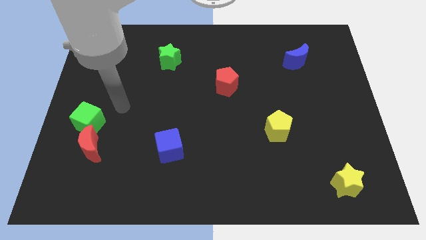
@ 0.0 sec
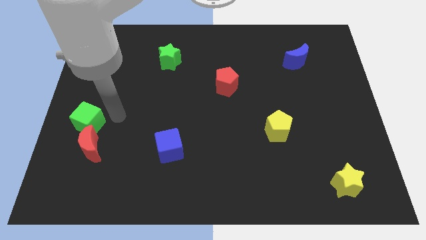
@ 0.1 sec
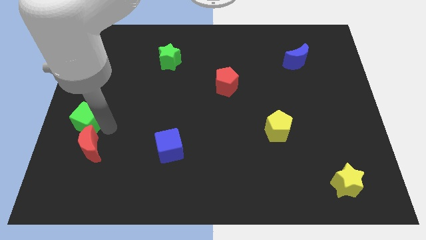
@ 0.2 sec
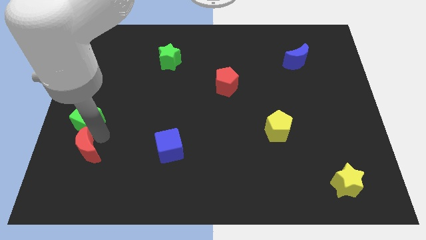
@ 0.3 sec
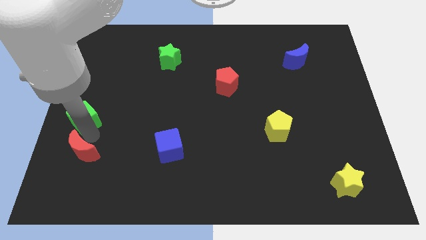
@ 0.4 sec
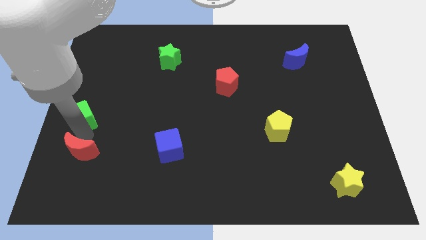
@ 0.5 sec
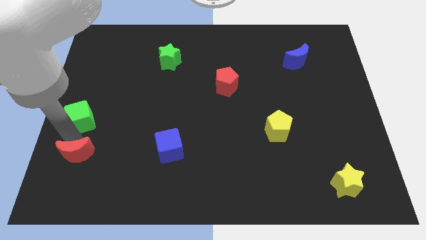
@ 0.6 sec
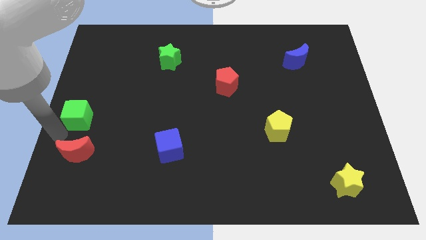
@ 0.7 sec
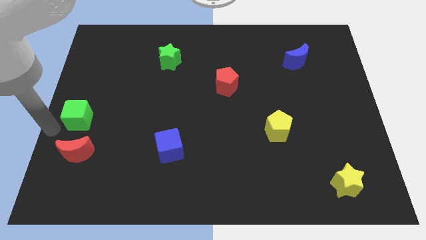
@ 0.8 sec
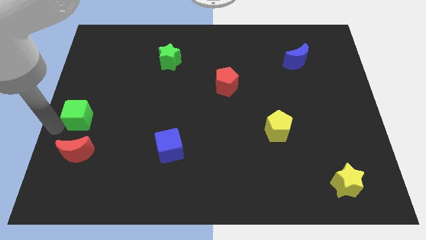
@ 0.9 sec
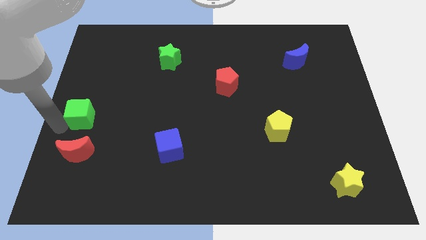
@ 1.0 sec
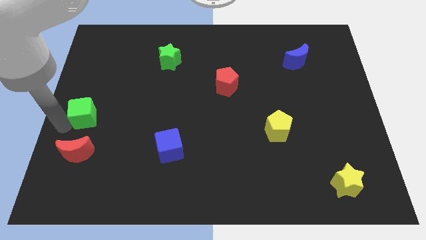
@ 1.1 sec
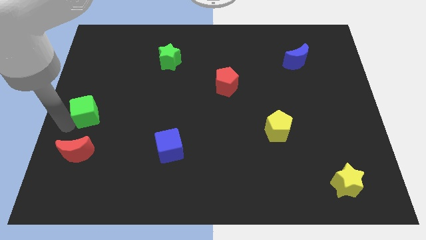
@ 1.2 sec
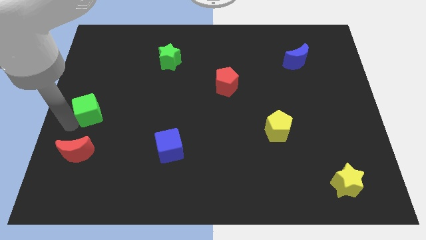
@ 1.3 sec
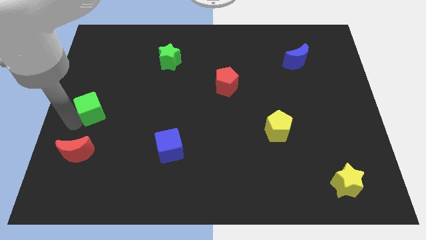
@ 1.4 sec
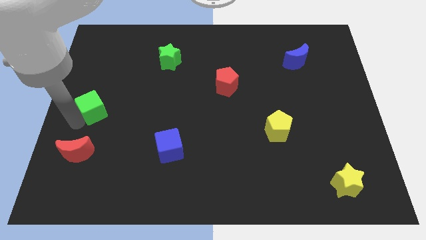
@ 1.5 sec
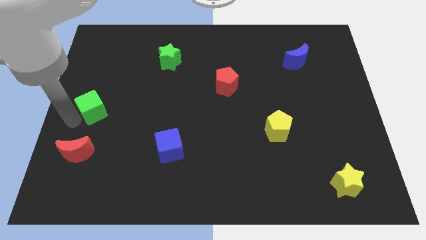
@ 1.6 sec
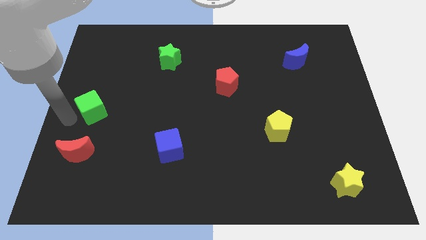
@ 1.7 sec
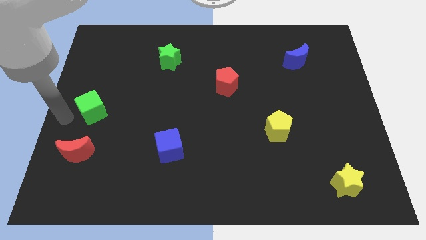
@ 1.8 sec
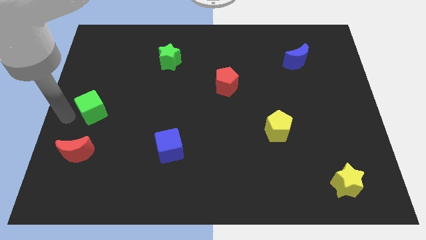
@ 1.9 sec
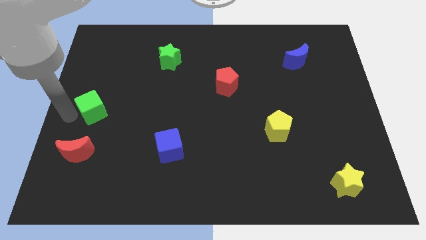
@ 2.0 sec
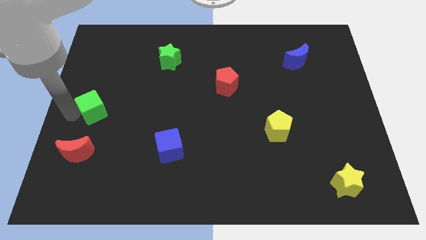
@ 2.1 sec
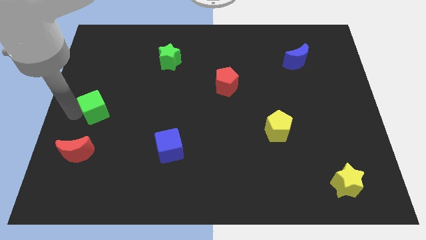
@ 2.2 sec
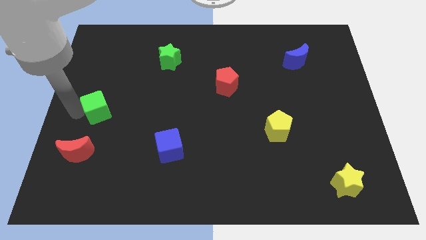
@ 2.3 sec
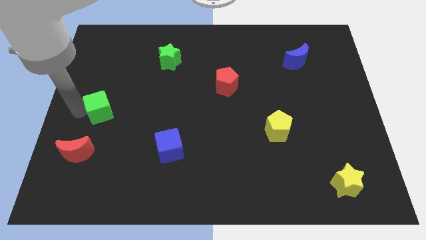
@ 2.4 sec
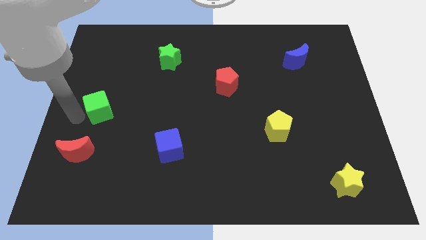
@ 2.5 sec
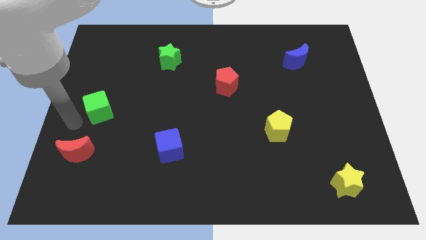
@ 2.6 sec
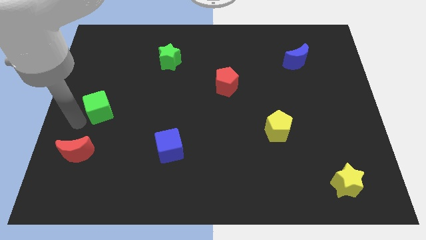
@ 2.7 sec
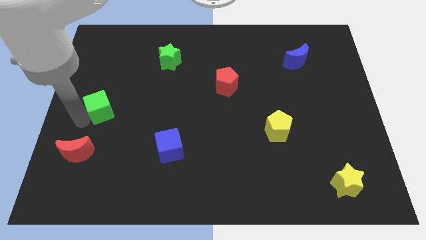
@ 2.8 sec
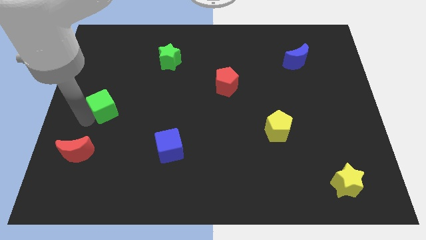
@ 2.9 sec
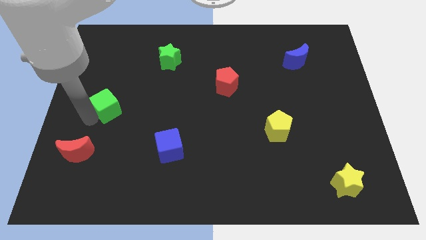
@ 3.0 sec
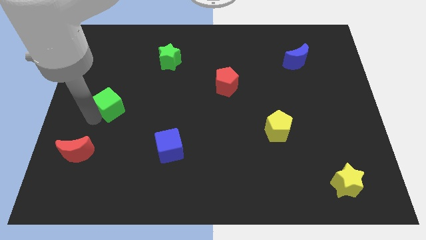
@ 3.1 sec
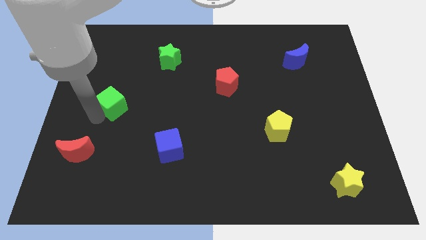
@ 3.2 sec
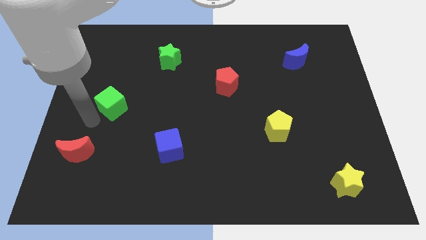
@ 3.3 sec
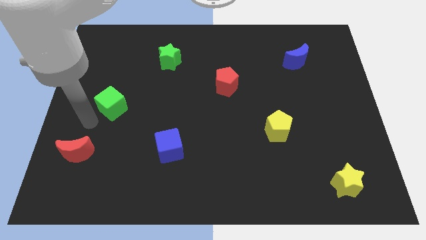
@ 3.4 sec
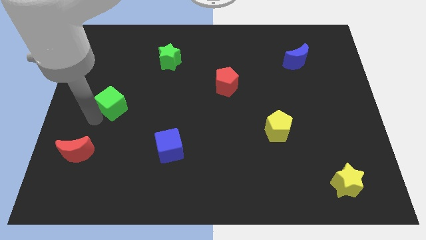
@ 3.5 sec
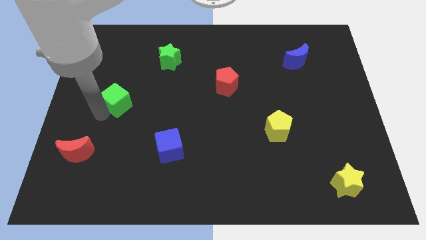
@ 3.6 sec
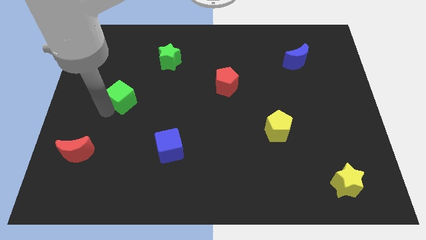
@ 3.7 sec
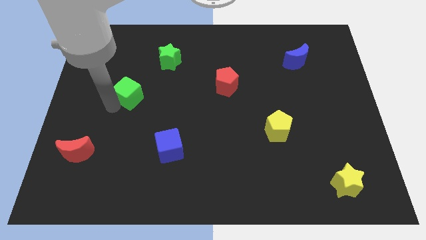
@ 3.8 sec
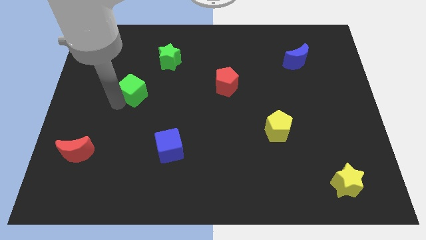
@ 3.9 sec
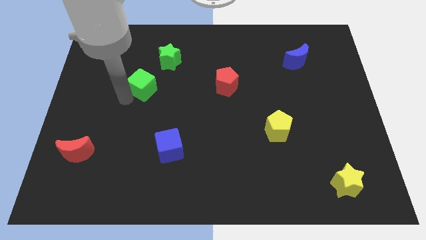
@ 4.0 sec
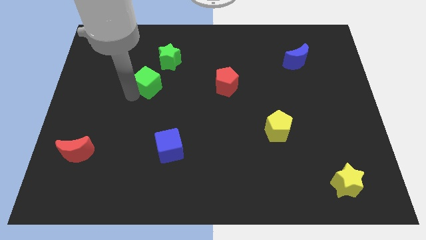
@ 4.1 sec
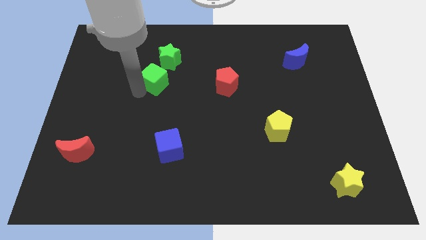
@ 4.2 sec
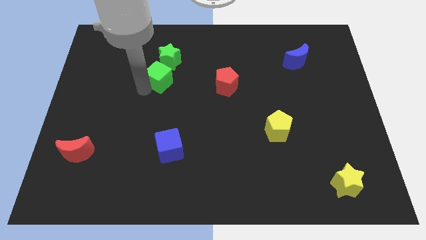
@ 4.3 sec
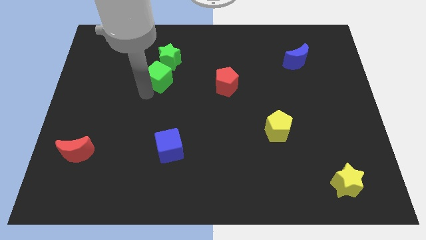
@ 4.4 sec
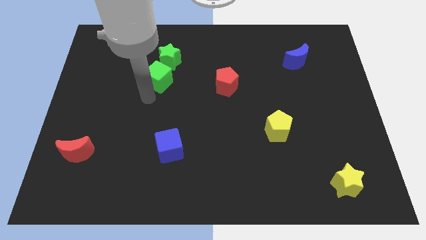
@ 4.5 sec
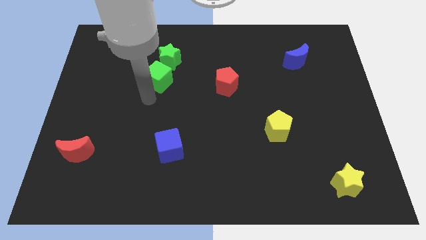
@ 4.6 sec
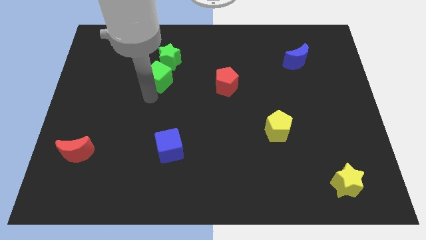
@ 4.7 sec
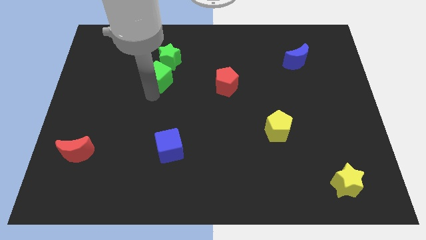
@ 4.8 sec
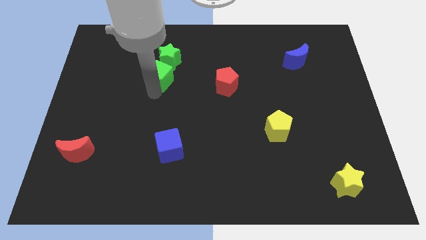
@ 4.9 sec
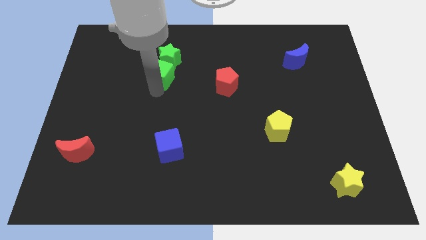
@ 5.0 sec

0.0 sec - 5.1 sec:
push the green cube next to the green star

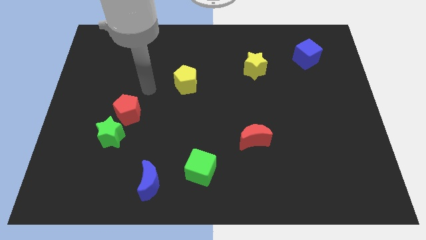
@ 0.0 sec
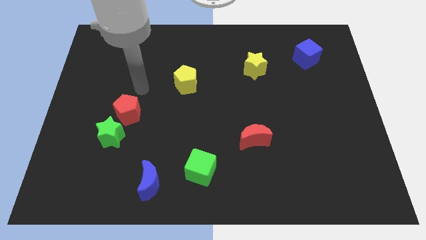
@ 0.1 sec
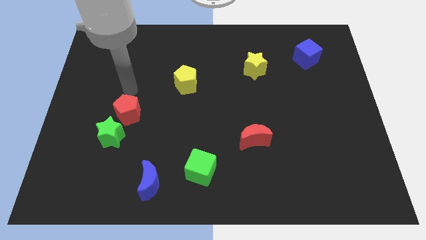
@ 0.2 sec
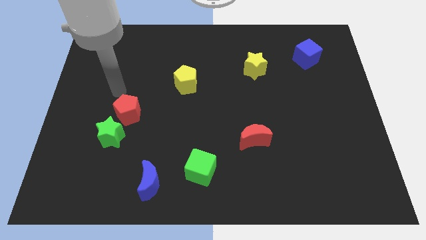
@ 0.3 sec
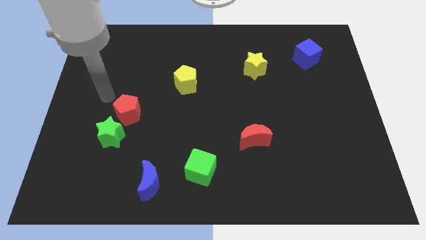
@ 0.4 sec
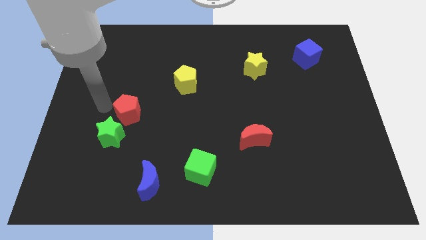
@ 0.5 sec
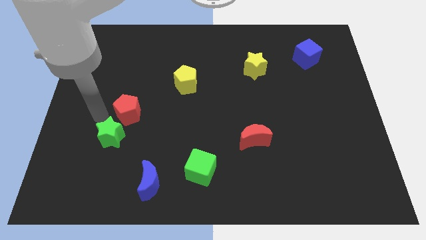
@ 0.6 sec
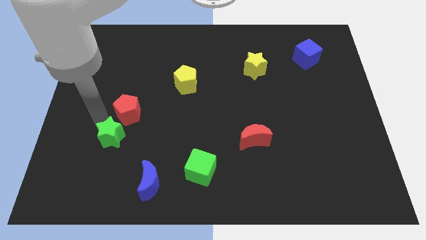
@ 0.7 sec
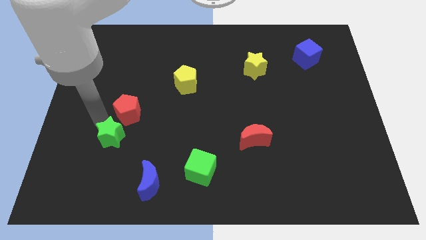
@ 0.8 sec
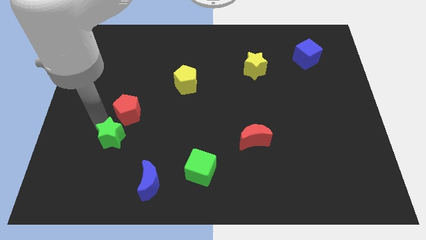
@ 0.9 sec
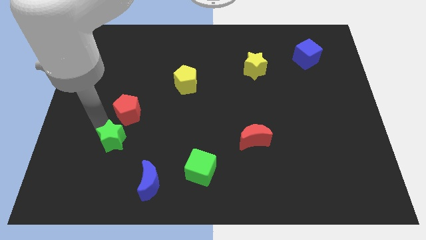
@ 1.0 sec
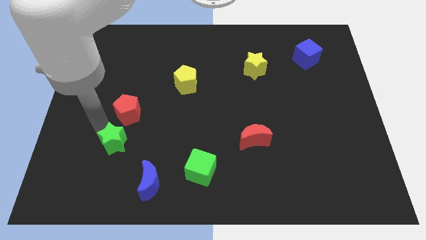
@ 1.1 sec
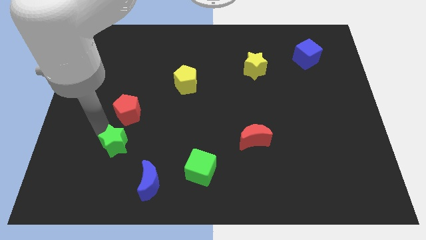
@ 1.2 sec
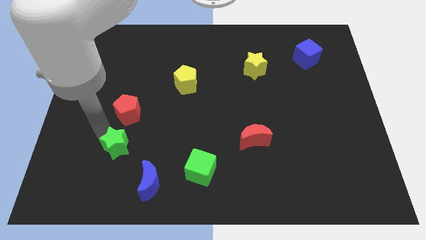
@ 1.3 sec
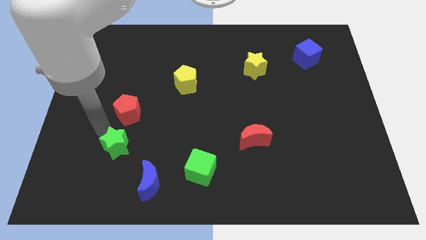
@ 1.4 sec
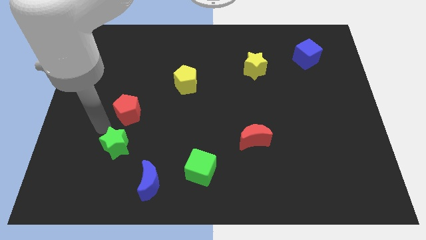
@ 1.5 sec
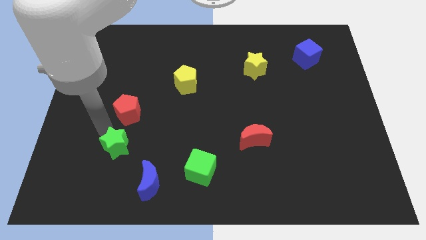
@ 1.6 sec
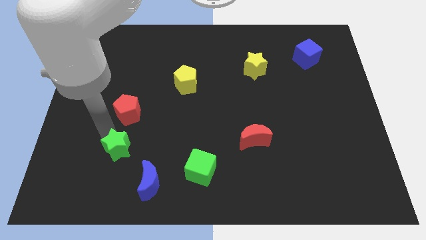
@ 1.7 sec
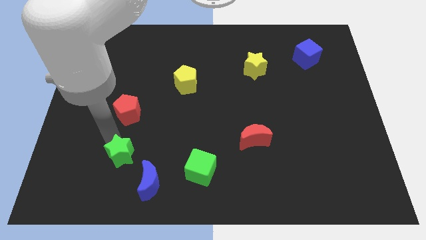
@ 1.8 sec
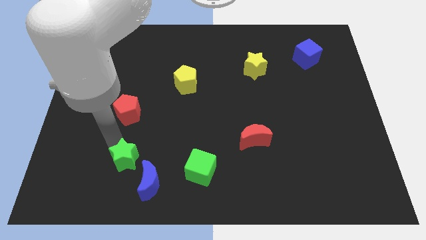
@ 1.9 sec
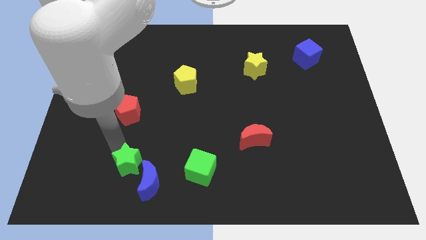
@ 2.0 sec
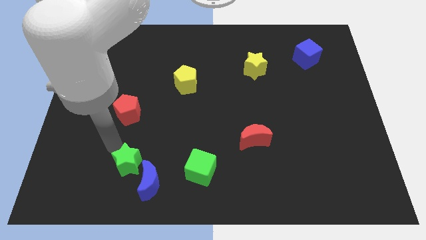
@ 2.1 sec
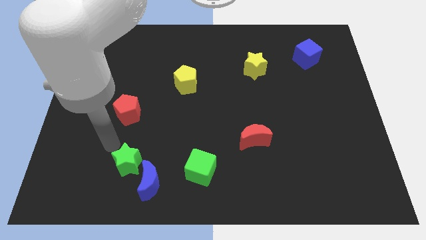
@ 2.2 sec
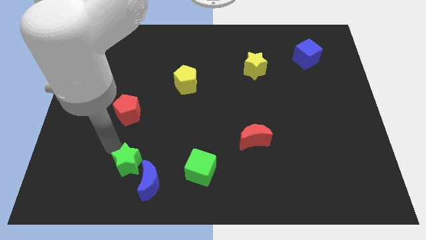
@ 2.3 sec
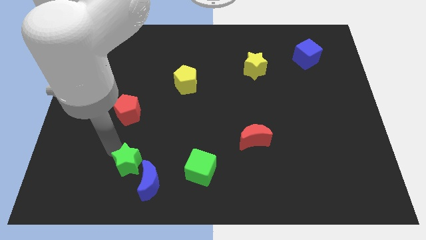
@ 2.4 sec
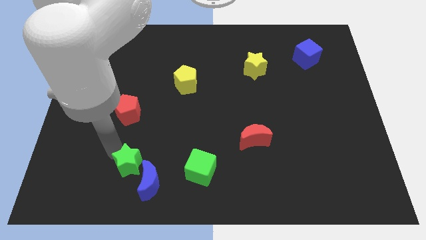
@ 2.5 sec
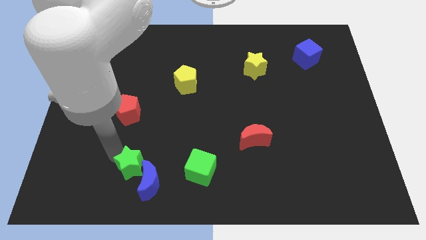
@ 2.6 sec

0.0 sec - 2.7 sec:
push the green star towards the blue moon
